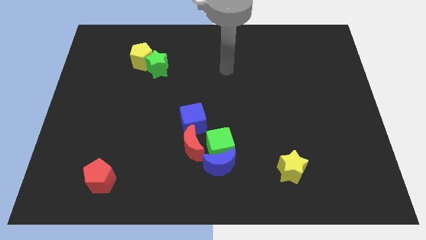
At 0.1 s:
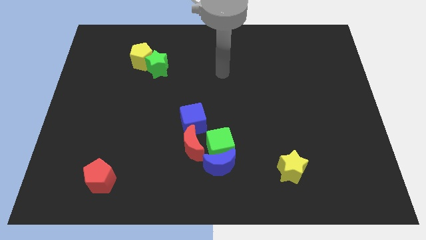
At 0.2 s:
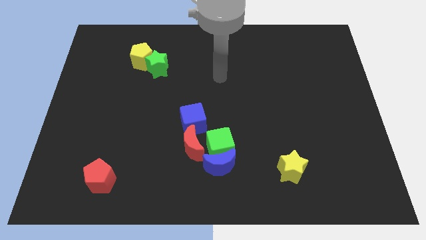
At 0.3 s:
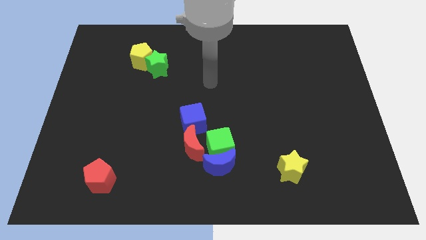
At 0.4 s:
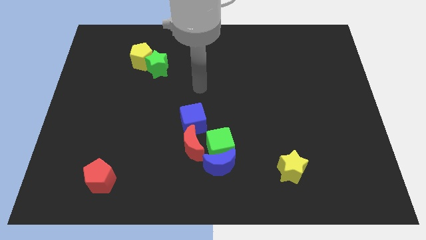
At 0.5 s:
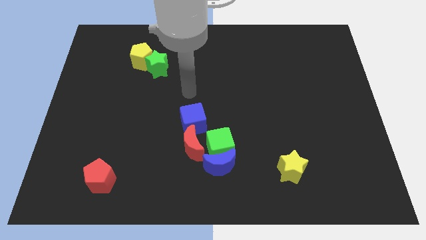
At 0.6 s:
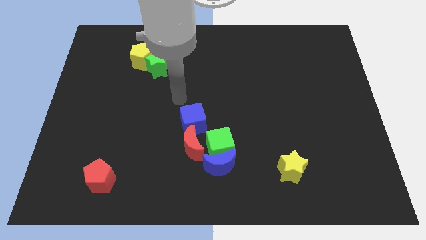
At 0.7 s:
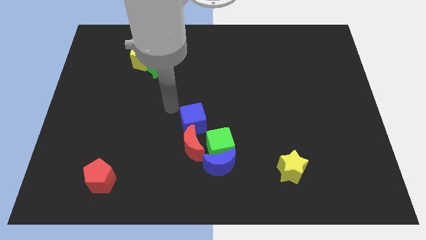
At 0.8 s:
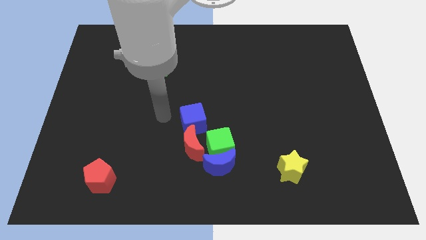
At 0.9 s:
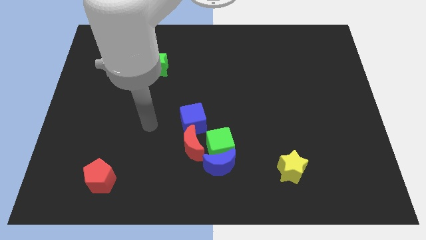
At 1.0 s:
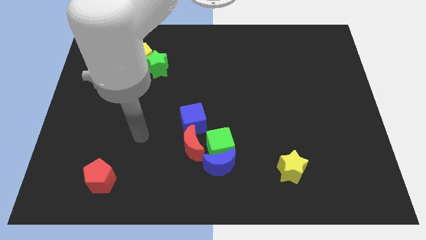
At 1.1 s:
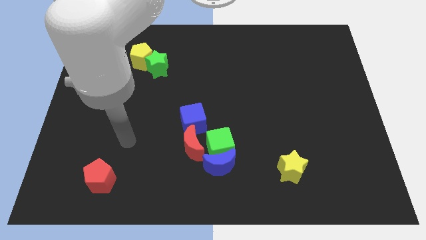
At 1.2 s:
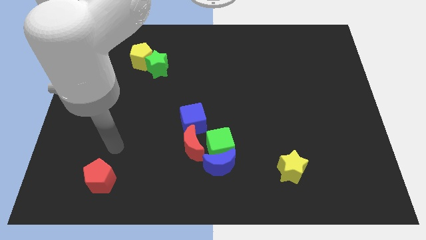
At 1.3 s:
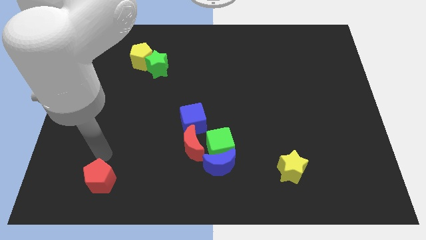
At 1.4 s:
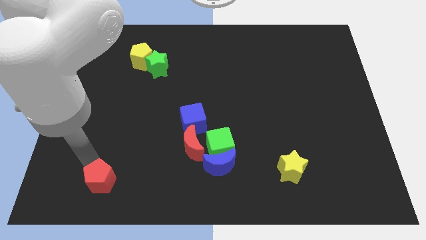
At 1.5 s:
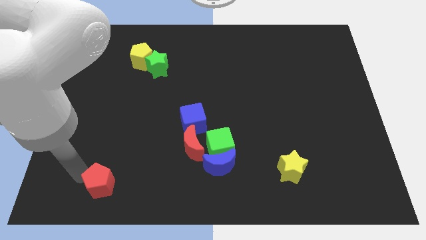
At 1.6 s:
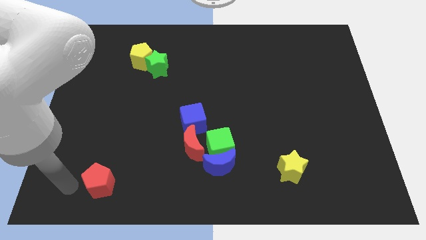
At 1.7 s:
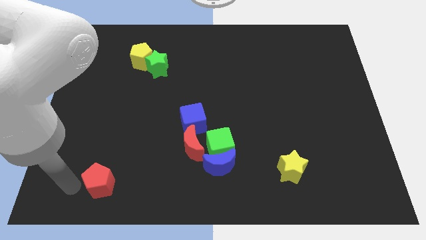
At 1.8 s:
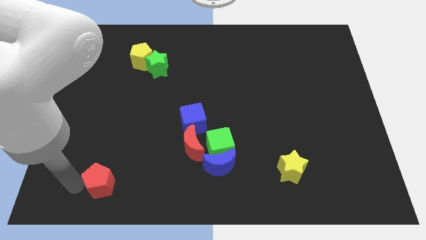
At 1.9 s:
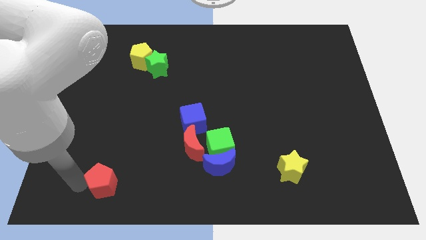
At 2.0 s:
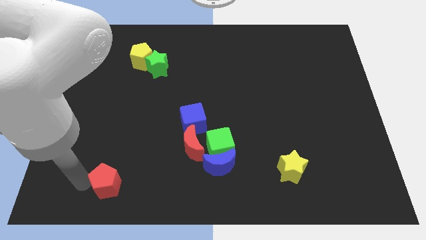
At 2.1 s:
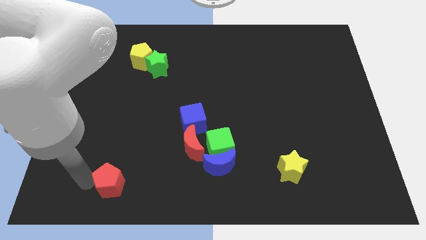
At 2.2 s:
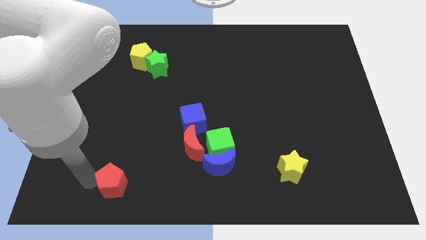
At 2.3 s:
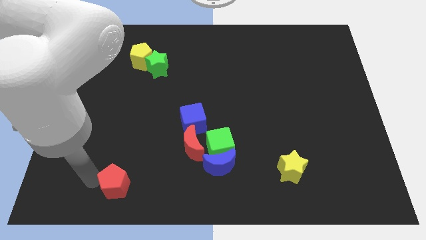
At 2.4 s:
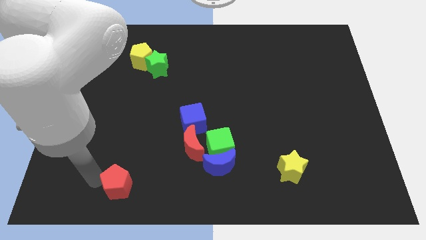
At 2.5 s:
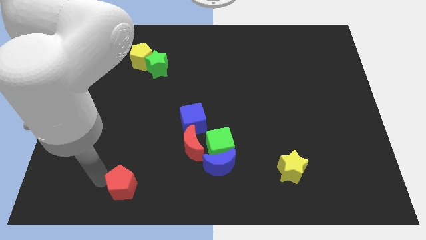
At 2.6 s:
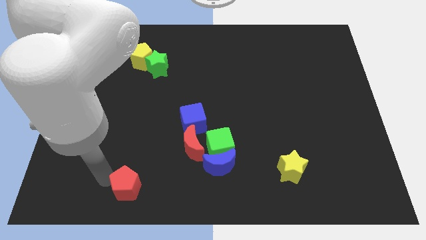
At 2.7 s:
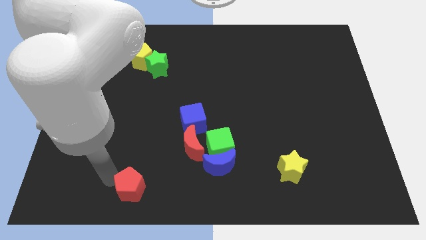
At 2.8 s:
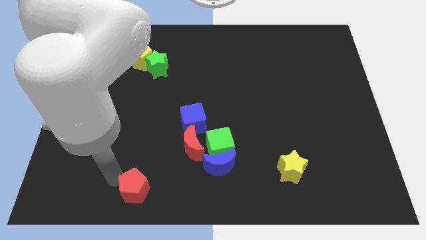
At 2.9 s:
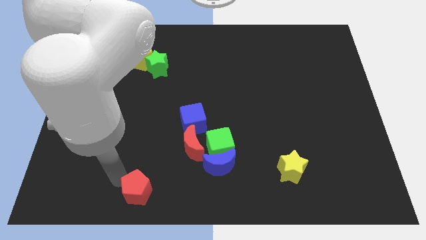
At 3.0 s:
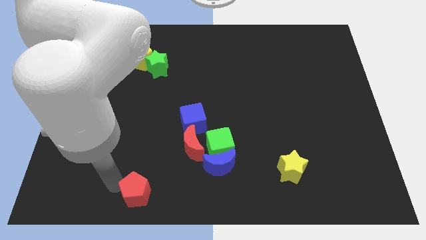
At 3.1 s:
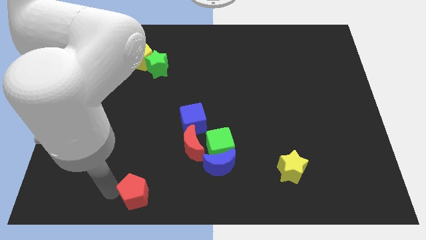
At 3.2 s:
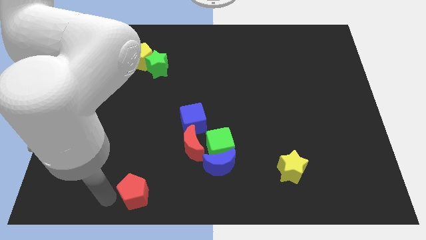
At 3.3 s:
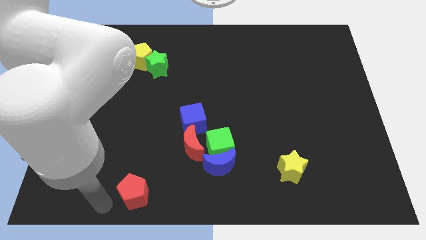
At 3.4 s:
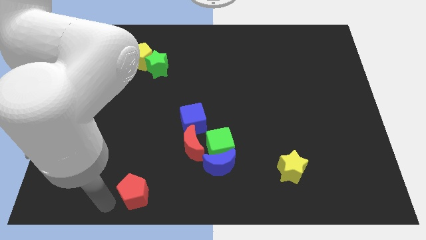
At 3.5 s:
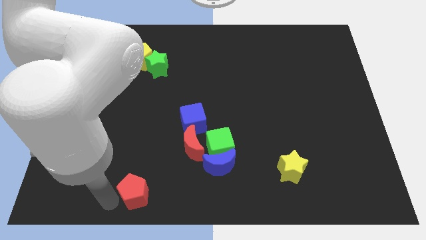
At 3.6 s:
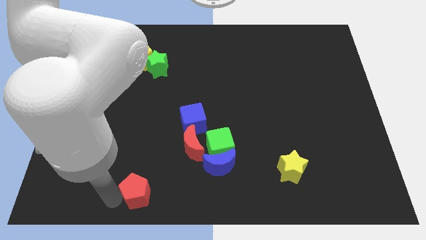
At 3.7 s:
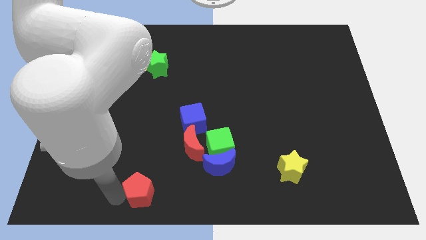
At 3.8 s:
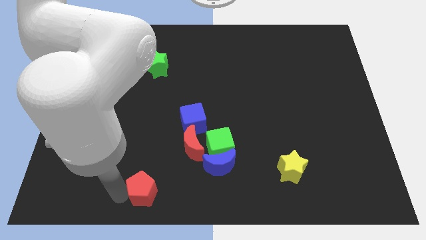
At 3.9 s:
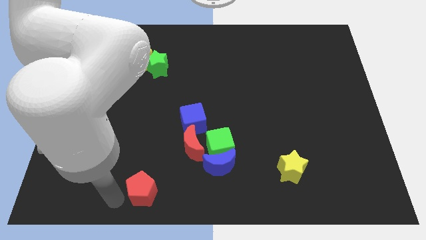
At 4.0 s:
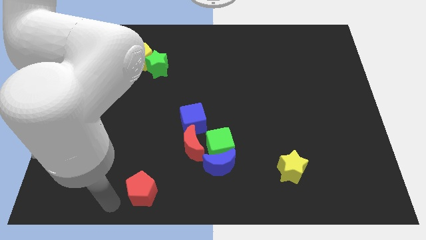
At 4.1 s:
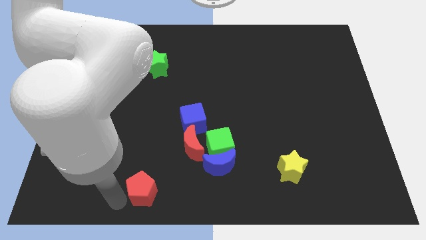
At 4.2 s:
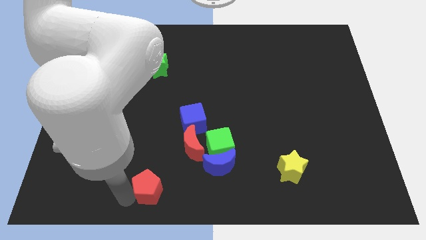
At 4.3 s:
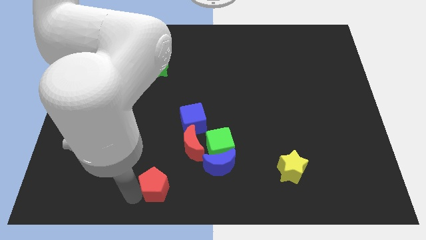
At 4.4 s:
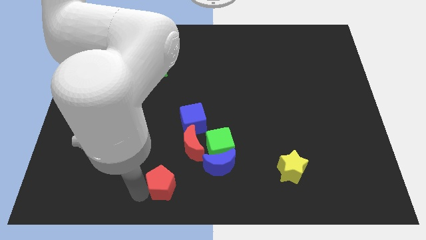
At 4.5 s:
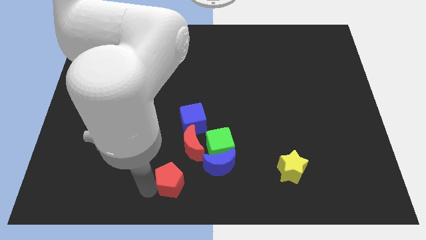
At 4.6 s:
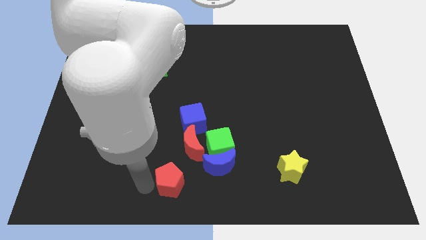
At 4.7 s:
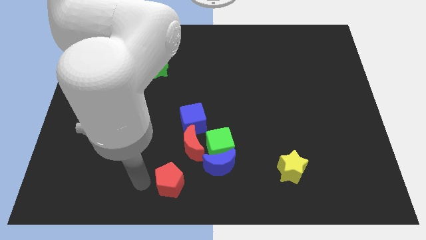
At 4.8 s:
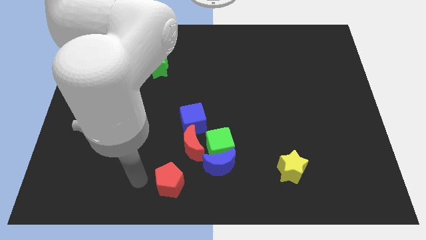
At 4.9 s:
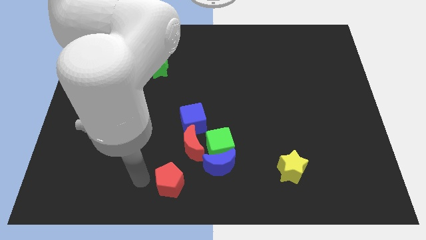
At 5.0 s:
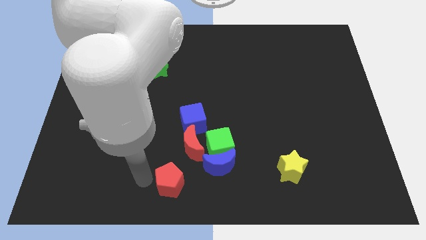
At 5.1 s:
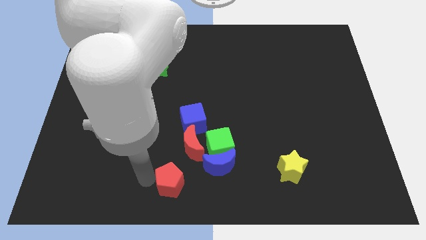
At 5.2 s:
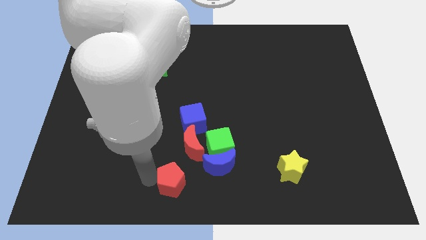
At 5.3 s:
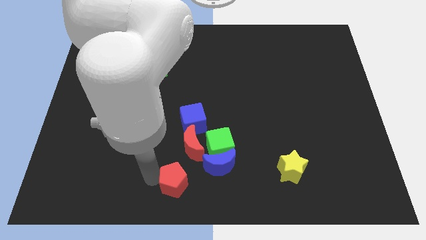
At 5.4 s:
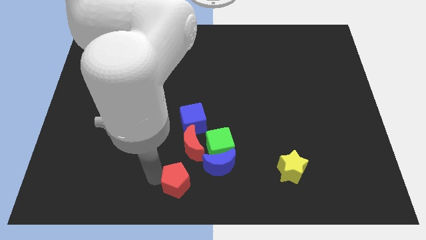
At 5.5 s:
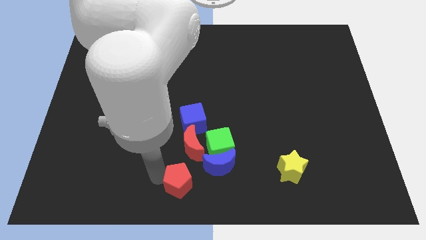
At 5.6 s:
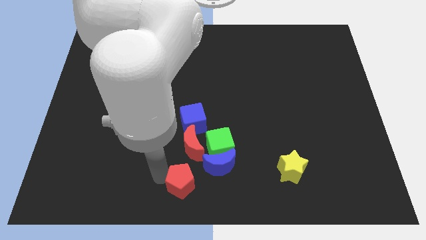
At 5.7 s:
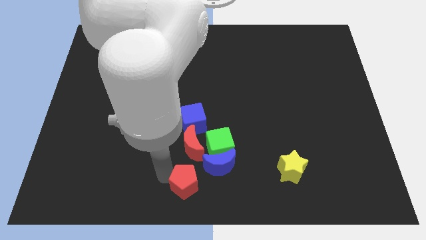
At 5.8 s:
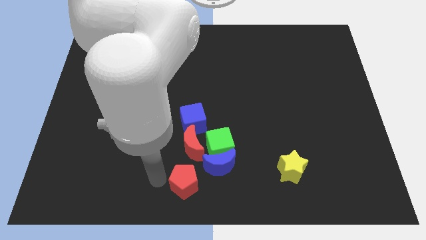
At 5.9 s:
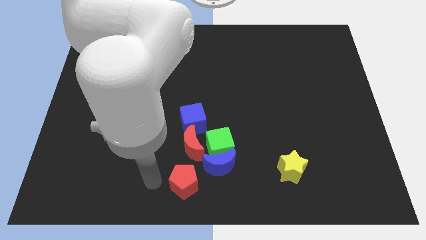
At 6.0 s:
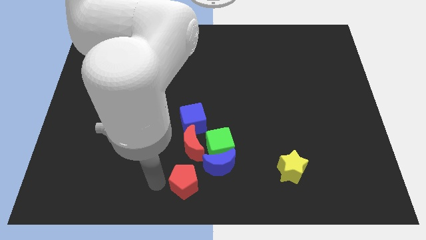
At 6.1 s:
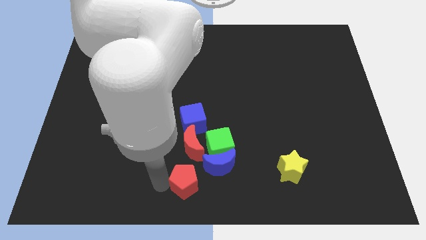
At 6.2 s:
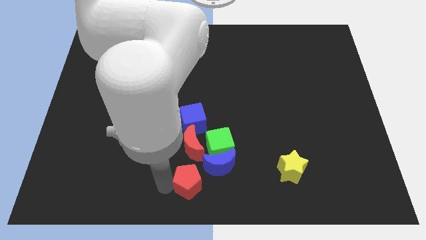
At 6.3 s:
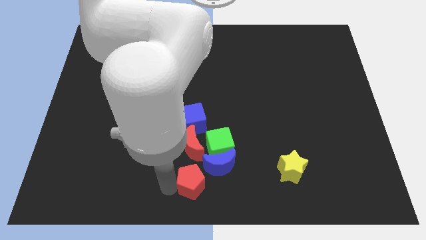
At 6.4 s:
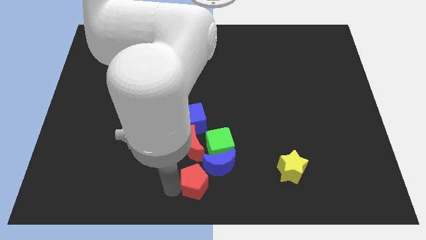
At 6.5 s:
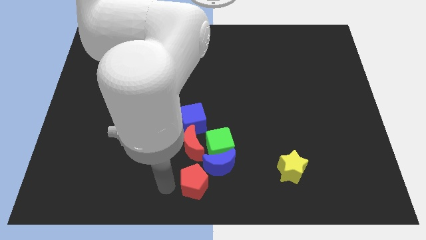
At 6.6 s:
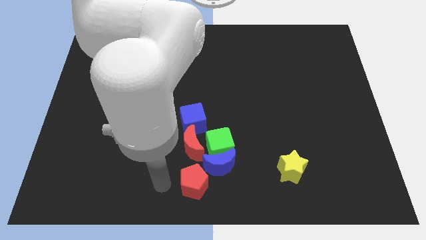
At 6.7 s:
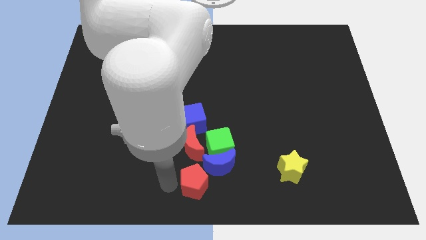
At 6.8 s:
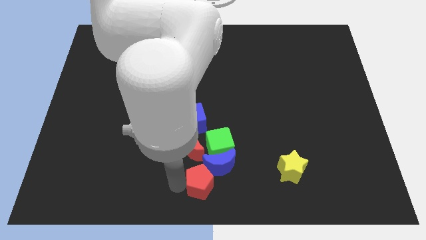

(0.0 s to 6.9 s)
slide the red pentagon to the right

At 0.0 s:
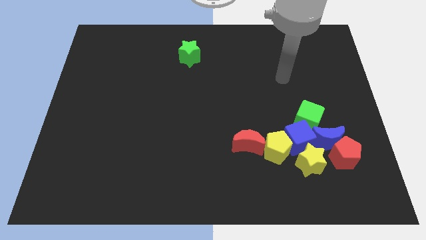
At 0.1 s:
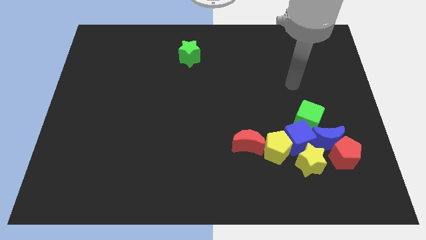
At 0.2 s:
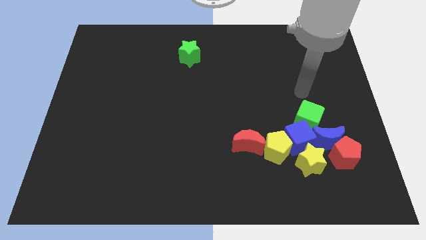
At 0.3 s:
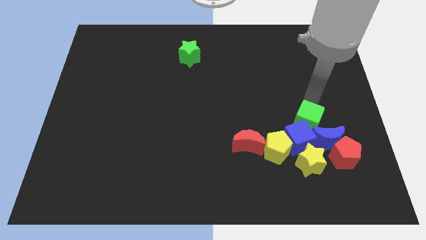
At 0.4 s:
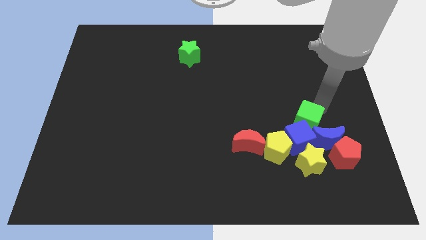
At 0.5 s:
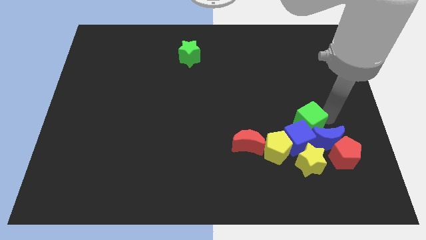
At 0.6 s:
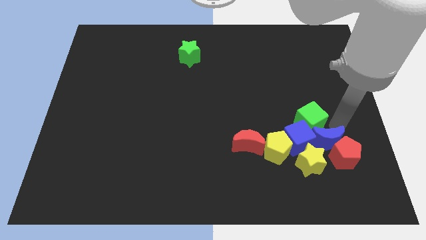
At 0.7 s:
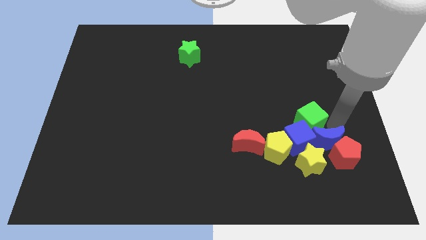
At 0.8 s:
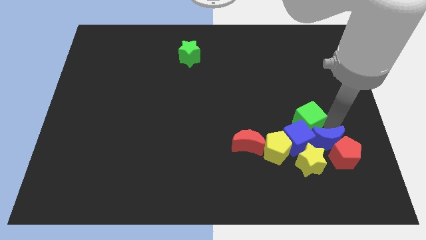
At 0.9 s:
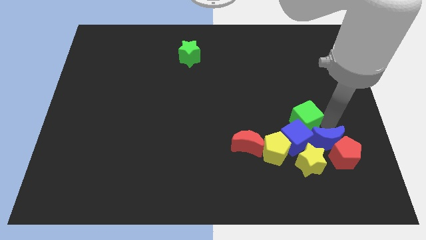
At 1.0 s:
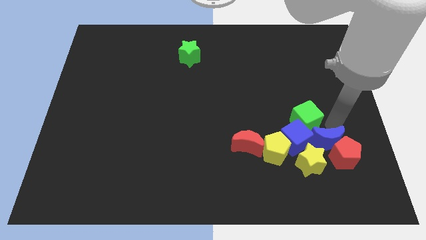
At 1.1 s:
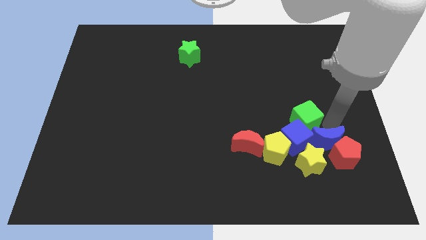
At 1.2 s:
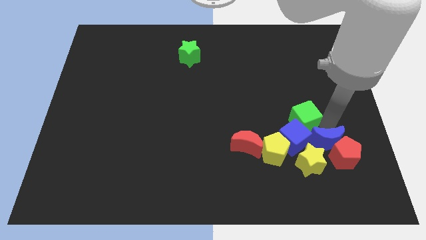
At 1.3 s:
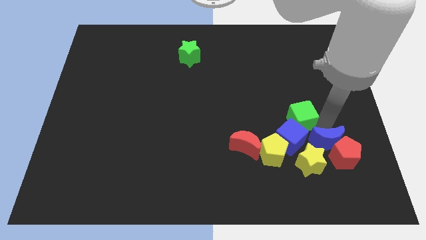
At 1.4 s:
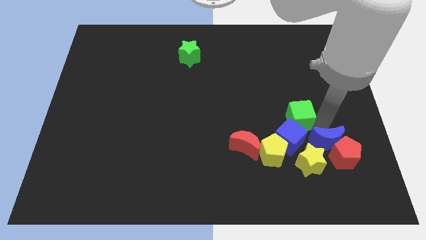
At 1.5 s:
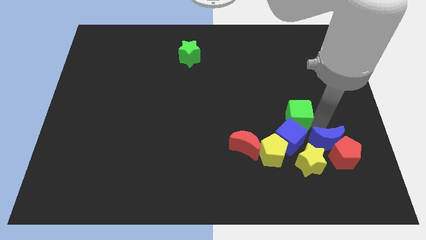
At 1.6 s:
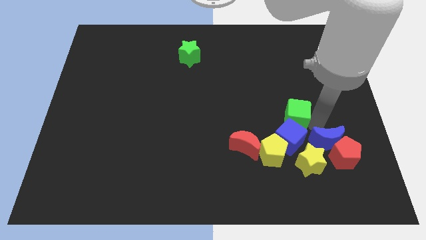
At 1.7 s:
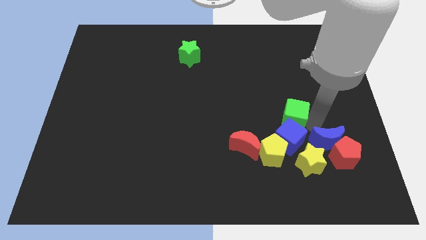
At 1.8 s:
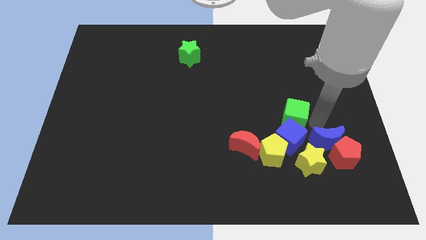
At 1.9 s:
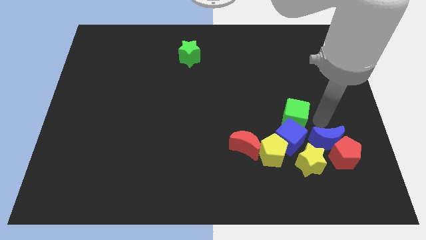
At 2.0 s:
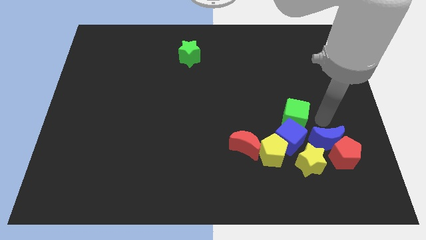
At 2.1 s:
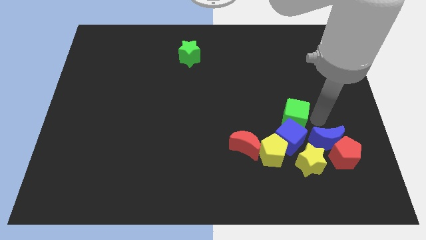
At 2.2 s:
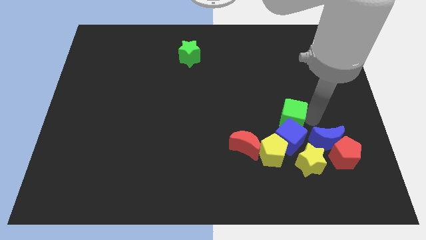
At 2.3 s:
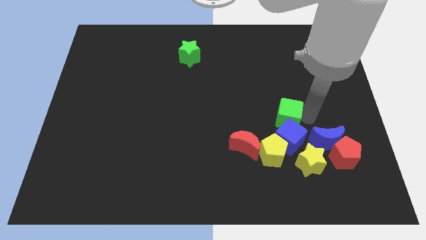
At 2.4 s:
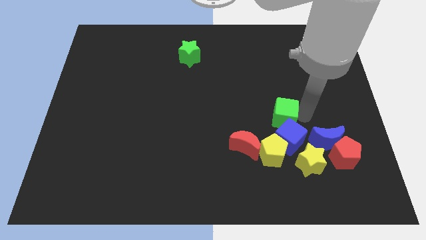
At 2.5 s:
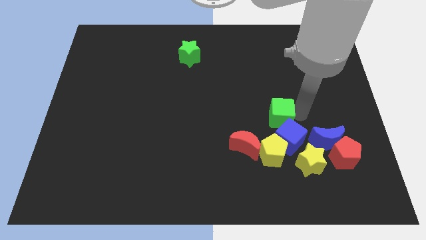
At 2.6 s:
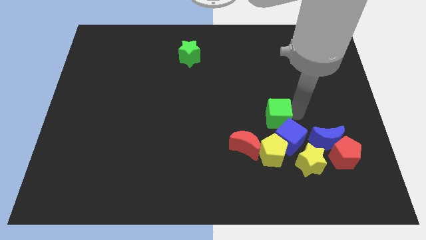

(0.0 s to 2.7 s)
slightly slide the green cube to the left
